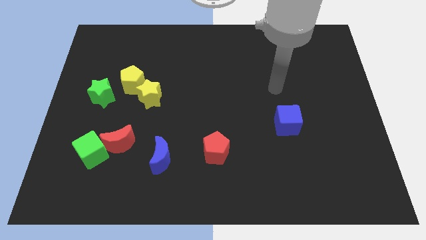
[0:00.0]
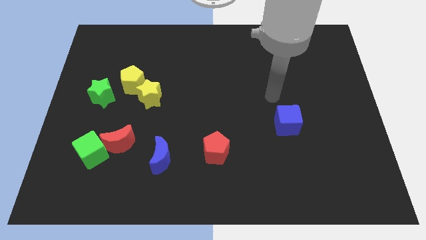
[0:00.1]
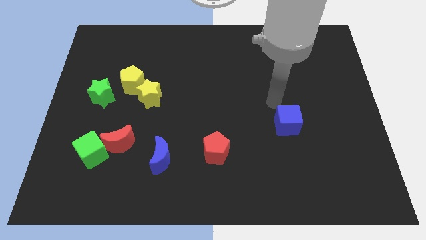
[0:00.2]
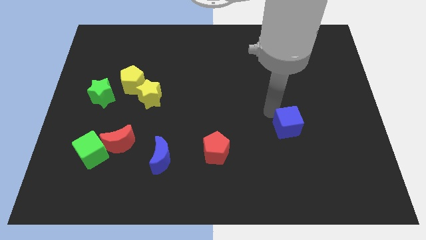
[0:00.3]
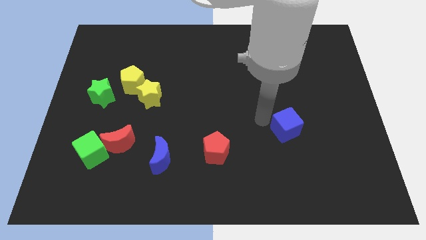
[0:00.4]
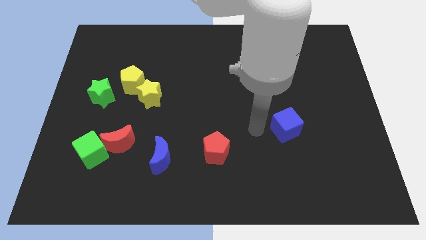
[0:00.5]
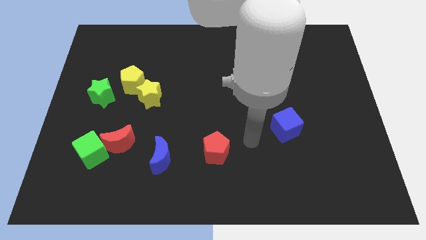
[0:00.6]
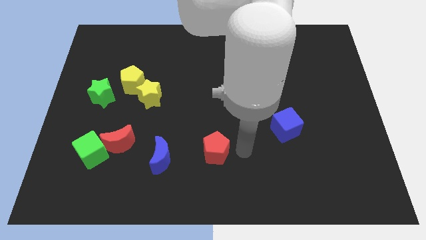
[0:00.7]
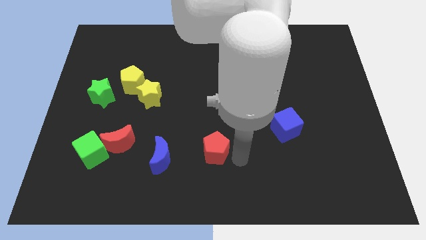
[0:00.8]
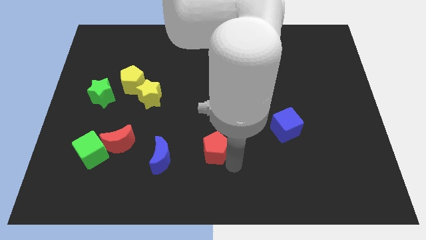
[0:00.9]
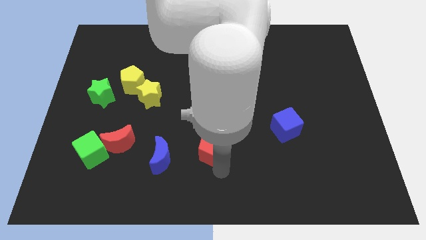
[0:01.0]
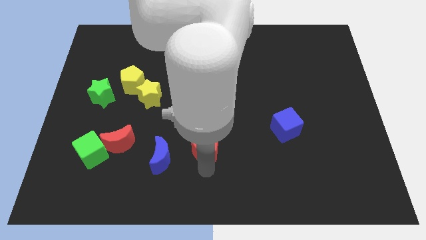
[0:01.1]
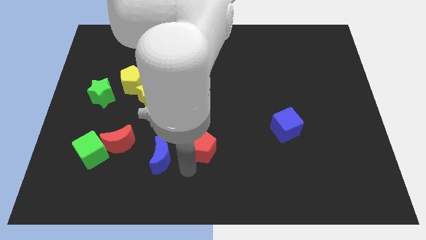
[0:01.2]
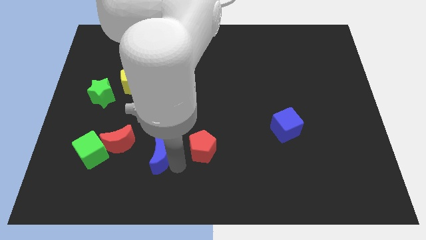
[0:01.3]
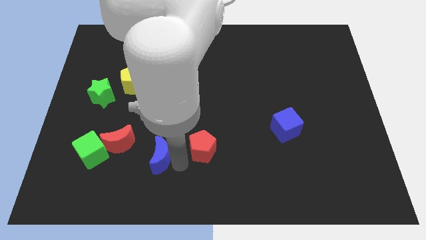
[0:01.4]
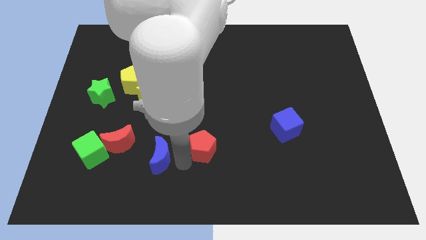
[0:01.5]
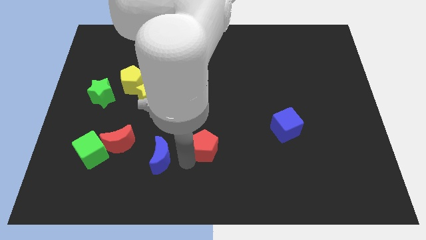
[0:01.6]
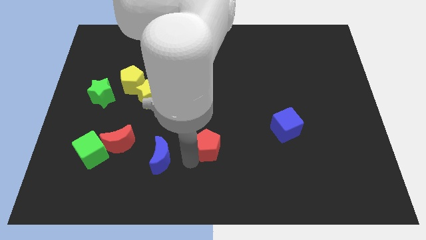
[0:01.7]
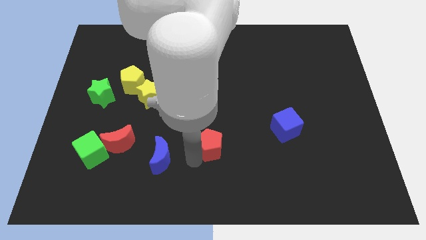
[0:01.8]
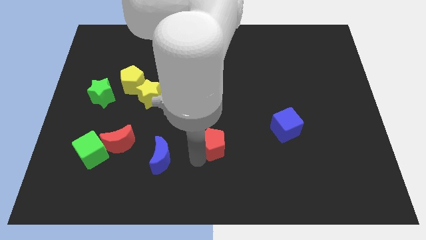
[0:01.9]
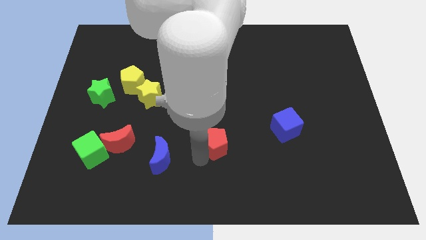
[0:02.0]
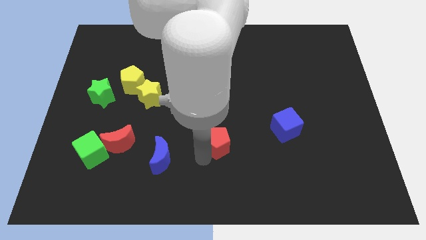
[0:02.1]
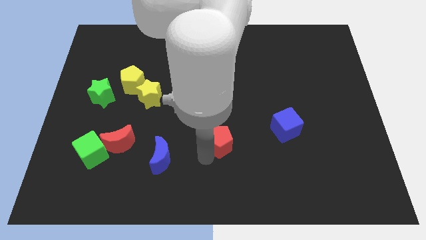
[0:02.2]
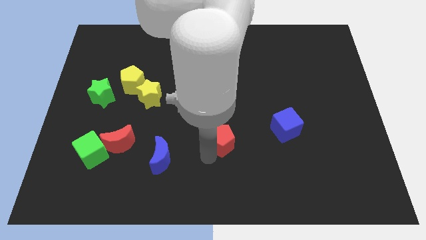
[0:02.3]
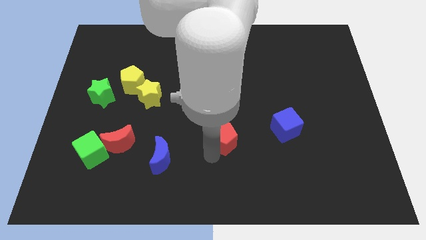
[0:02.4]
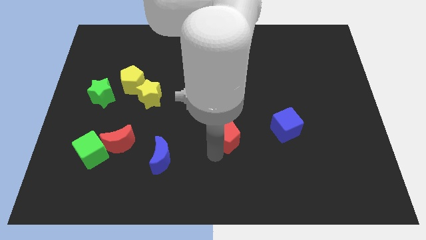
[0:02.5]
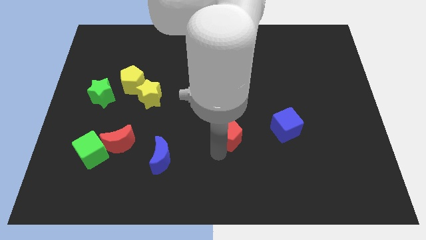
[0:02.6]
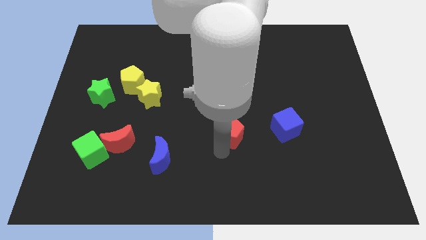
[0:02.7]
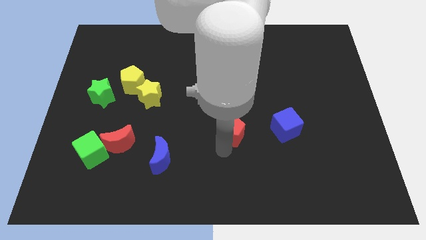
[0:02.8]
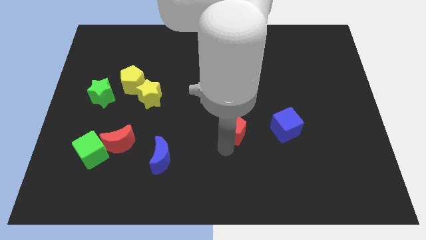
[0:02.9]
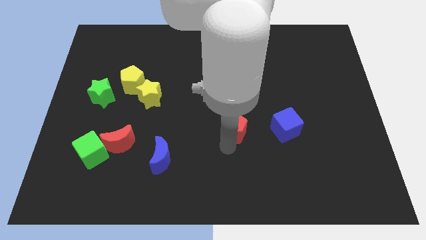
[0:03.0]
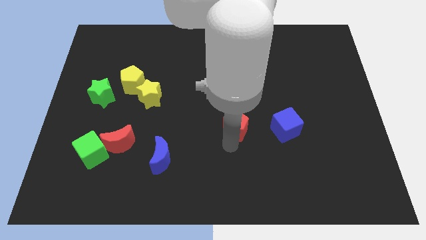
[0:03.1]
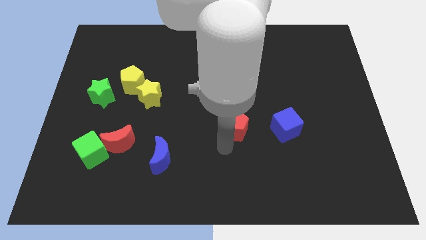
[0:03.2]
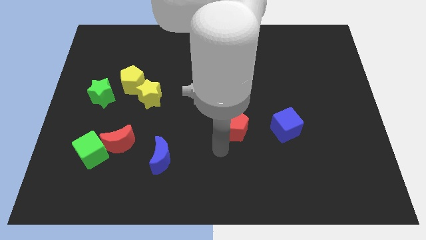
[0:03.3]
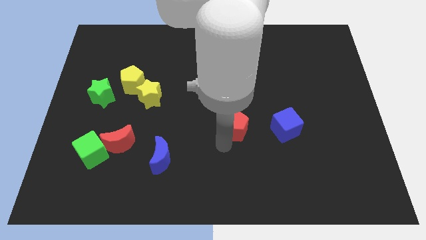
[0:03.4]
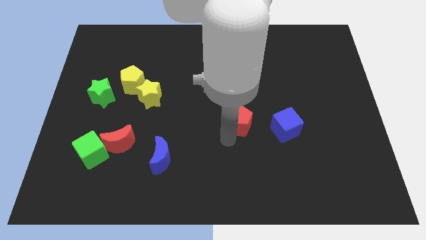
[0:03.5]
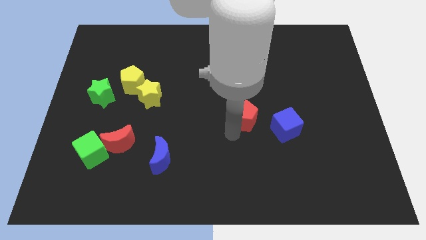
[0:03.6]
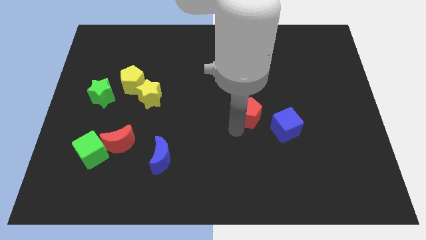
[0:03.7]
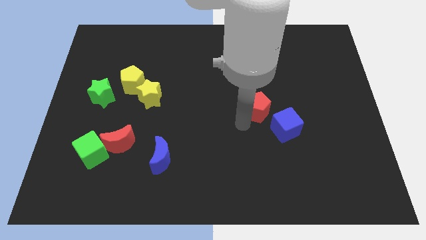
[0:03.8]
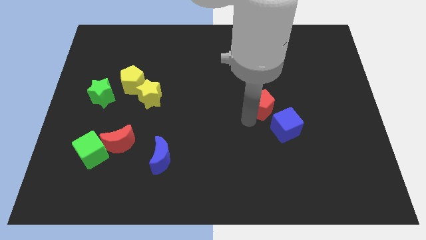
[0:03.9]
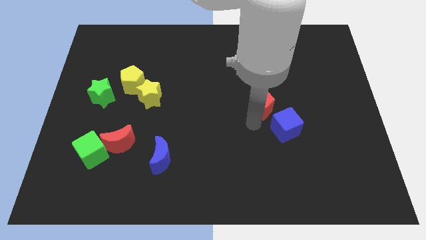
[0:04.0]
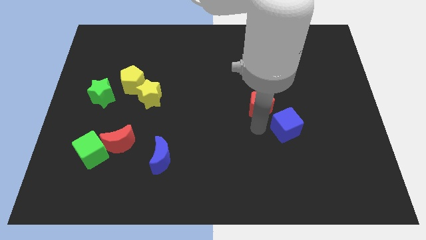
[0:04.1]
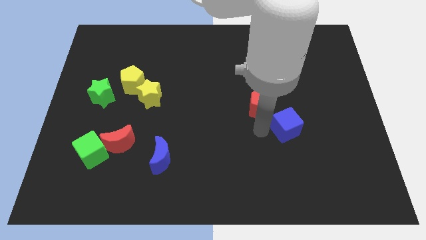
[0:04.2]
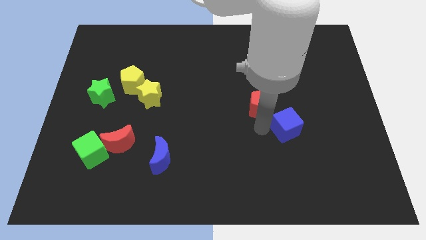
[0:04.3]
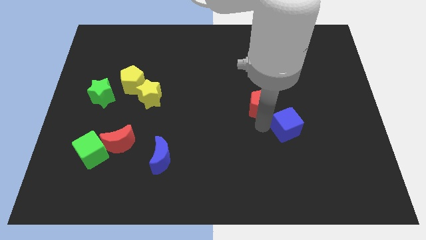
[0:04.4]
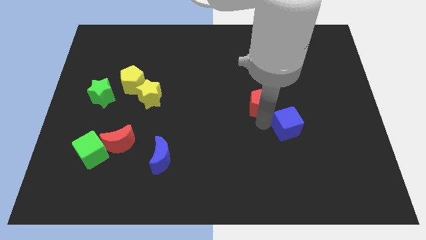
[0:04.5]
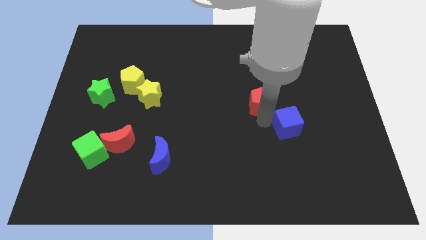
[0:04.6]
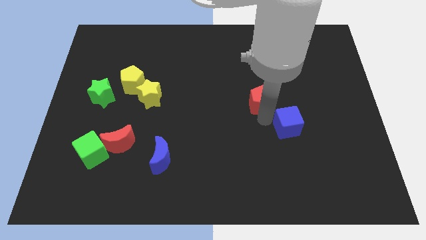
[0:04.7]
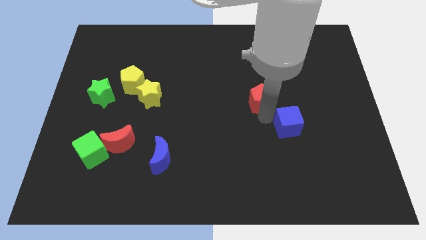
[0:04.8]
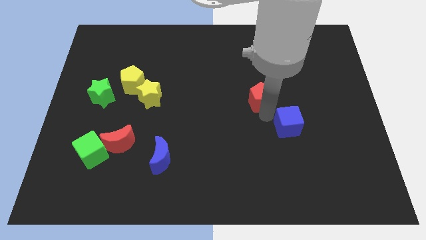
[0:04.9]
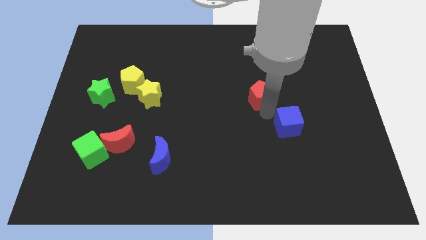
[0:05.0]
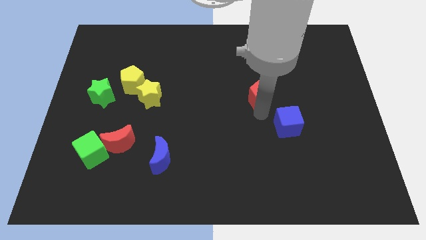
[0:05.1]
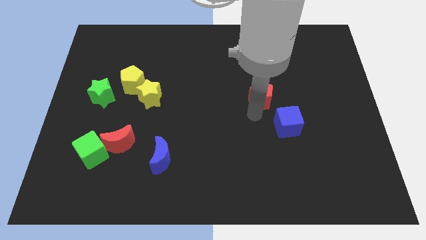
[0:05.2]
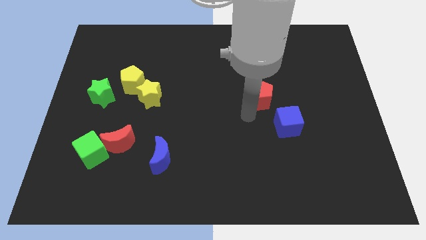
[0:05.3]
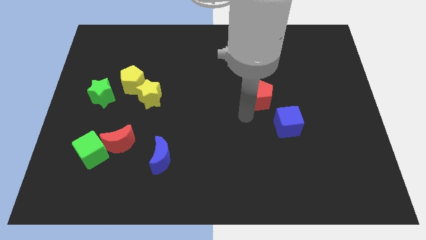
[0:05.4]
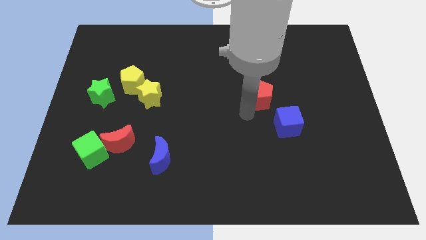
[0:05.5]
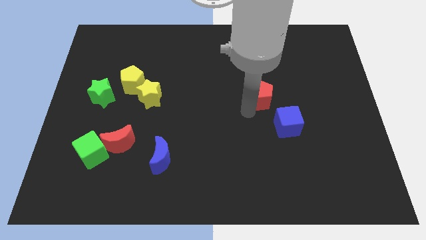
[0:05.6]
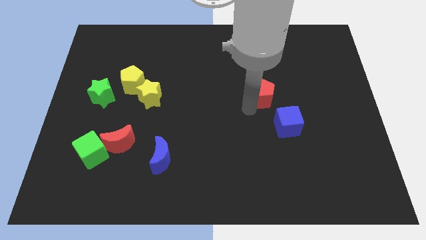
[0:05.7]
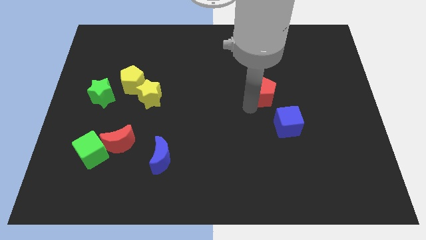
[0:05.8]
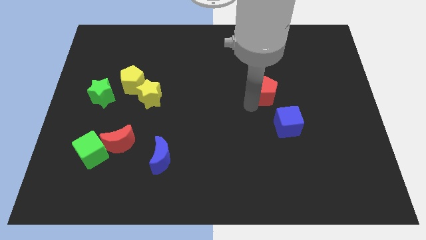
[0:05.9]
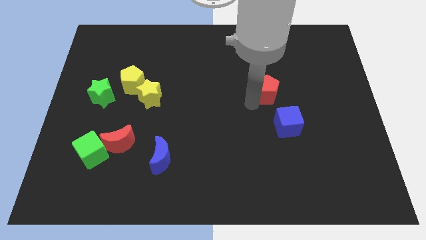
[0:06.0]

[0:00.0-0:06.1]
move the red pentagon upwards and to the right

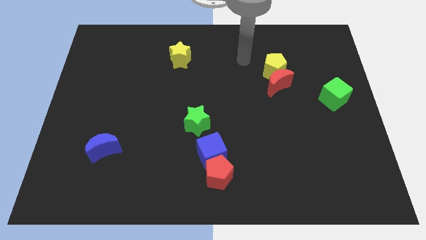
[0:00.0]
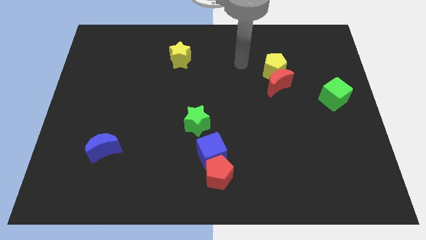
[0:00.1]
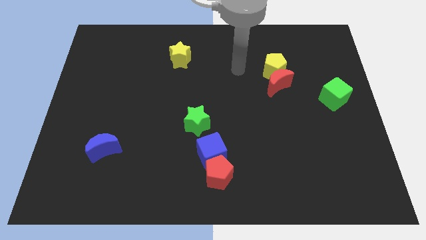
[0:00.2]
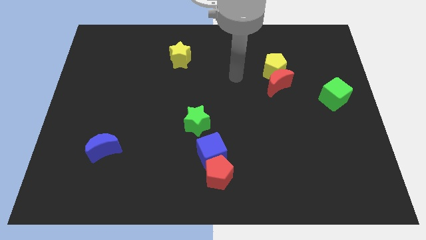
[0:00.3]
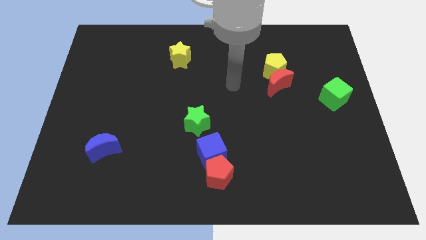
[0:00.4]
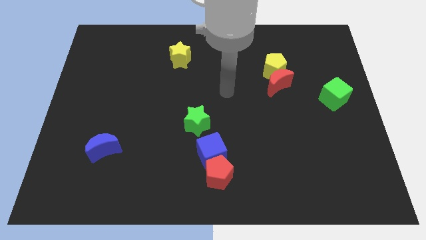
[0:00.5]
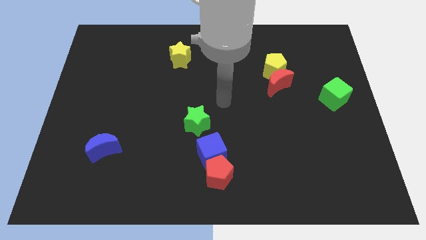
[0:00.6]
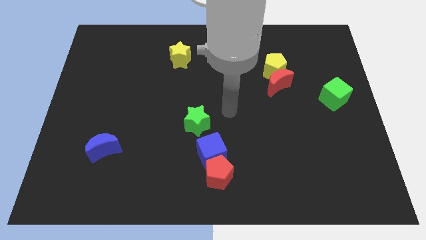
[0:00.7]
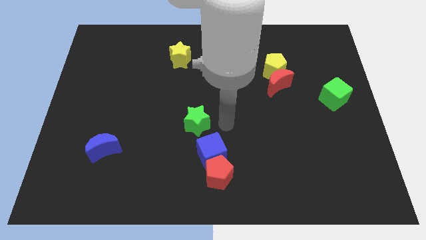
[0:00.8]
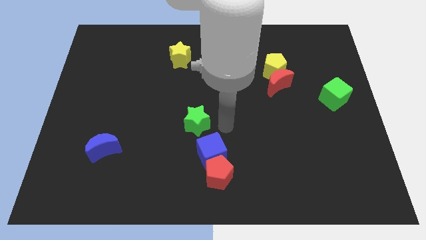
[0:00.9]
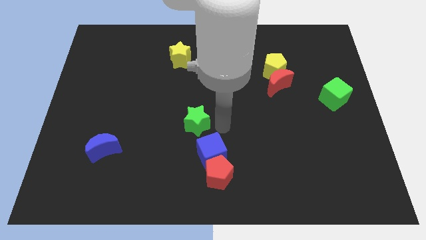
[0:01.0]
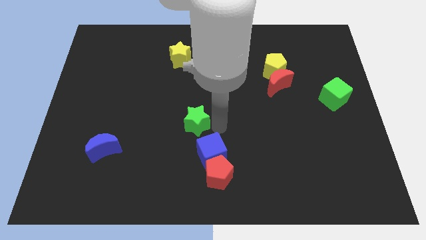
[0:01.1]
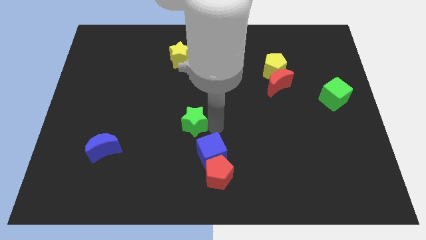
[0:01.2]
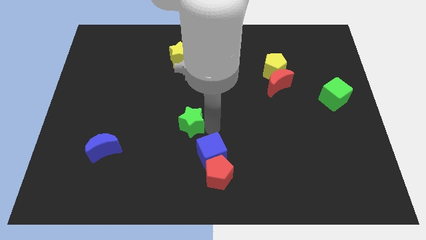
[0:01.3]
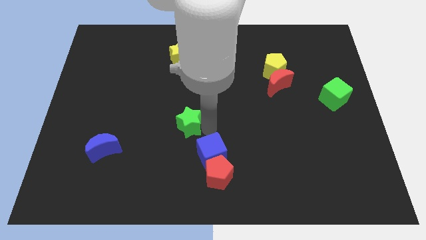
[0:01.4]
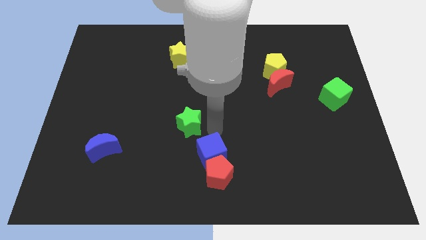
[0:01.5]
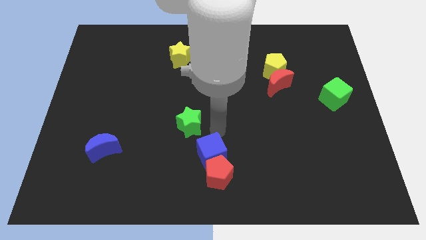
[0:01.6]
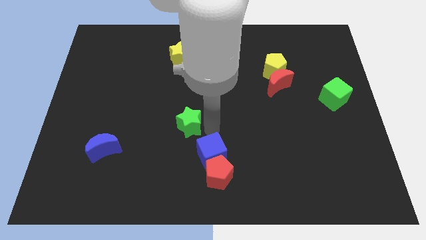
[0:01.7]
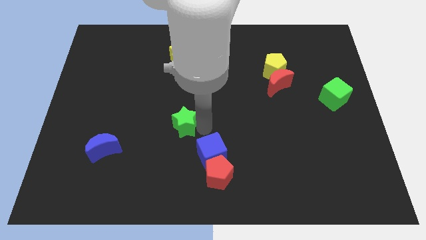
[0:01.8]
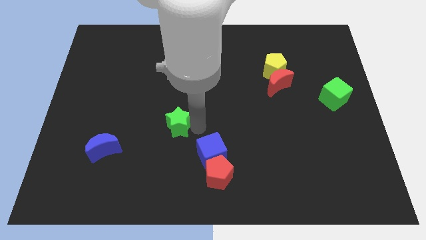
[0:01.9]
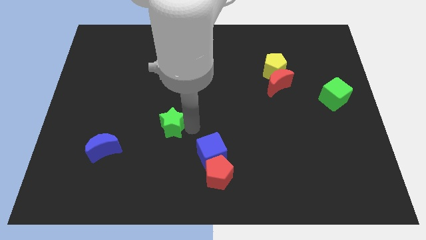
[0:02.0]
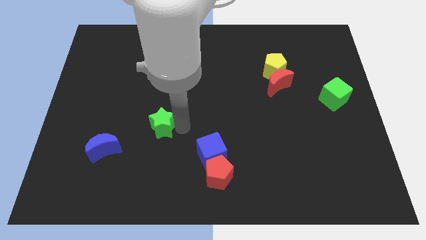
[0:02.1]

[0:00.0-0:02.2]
push the green star a little left
